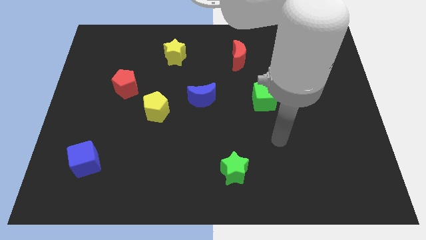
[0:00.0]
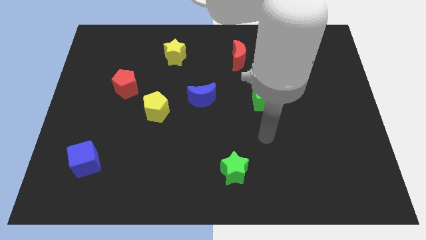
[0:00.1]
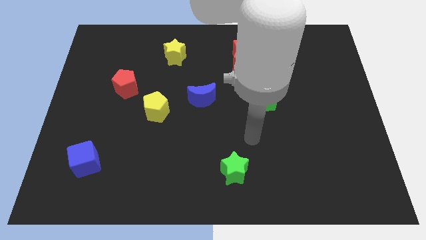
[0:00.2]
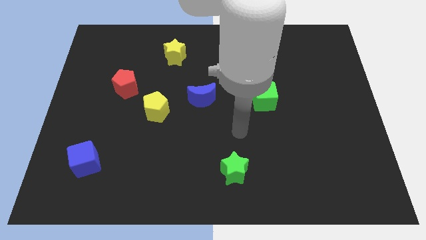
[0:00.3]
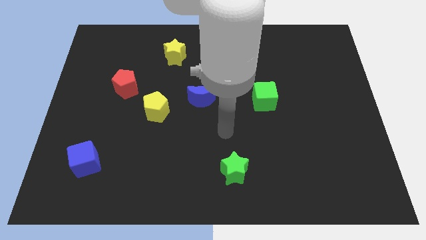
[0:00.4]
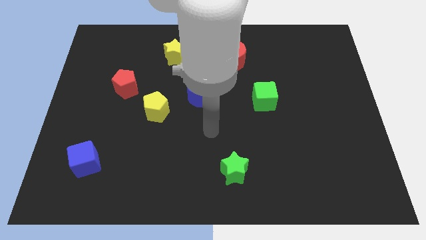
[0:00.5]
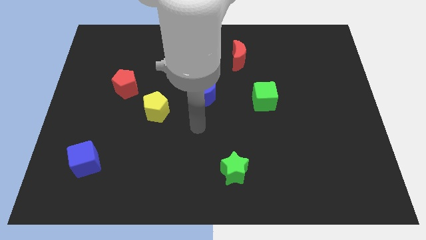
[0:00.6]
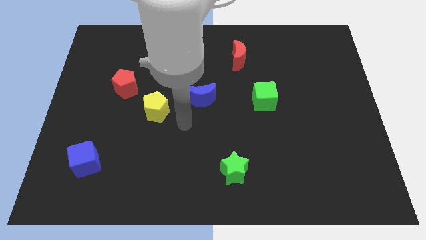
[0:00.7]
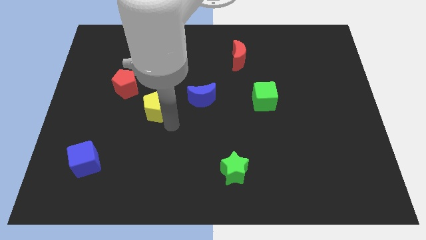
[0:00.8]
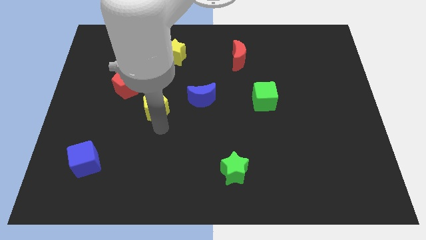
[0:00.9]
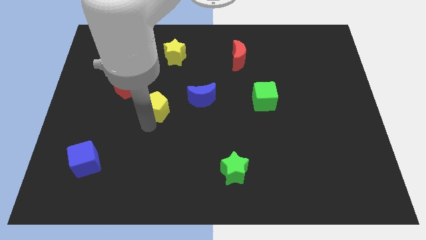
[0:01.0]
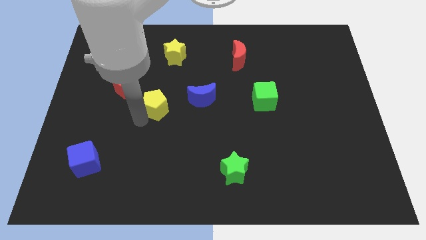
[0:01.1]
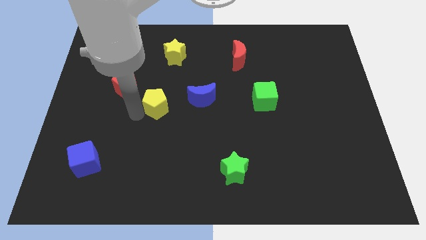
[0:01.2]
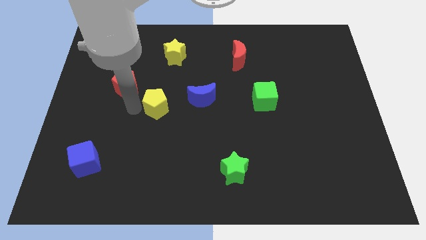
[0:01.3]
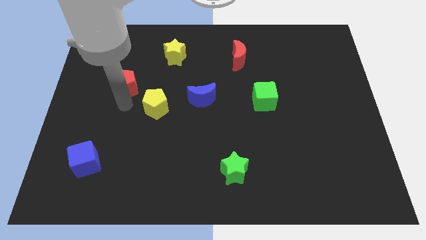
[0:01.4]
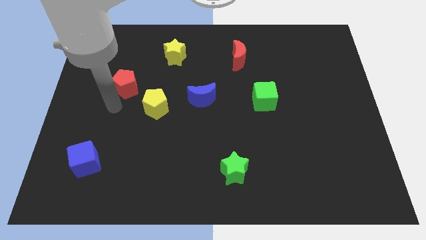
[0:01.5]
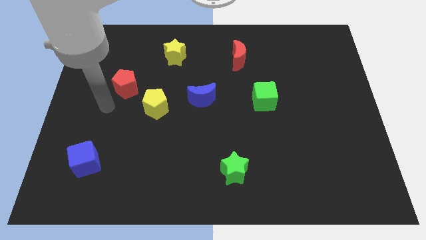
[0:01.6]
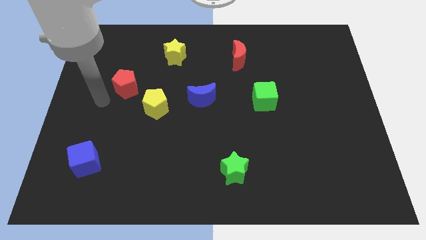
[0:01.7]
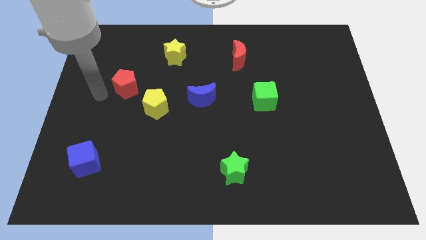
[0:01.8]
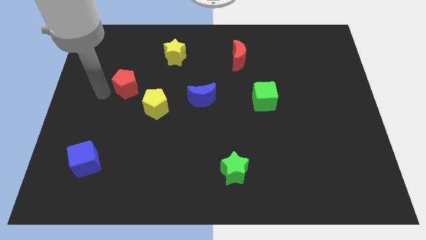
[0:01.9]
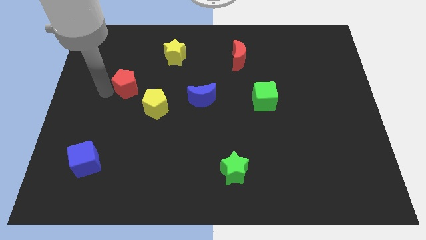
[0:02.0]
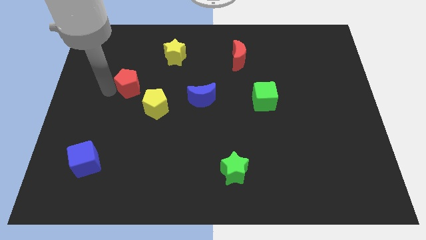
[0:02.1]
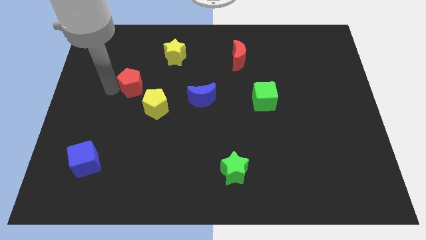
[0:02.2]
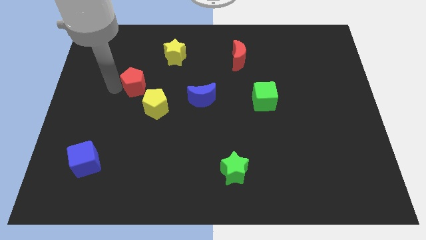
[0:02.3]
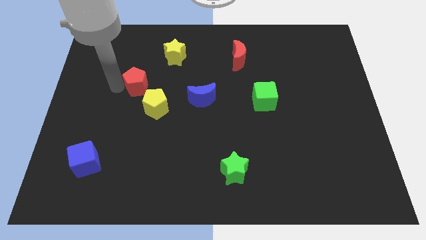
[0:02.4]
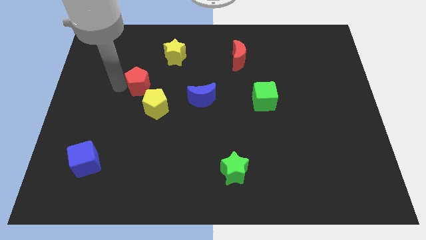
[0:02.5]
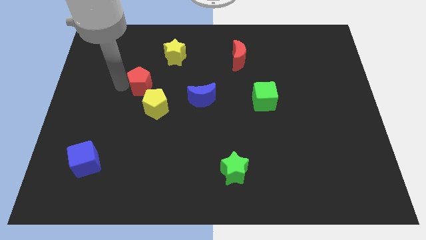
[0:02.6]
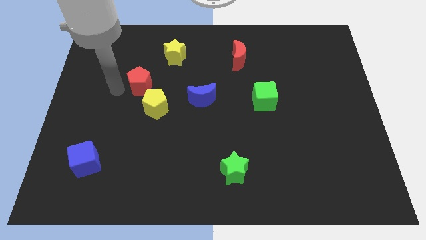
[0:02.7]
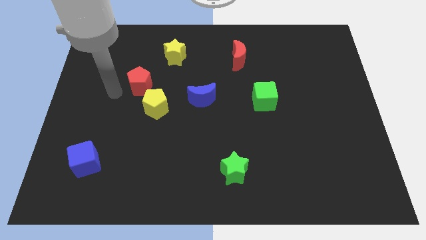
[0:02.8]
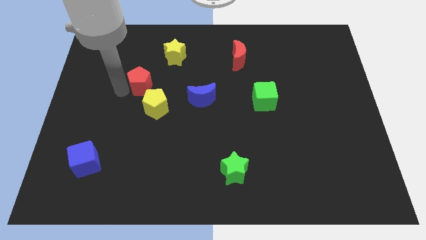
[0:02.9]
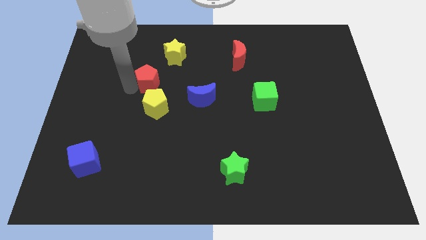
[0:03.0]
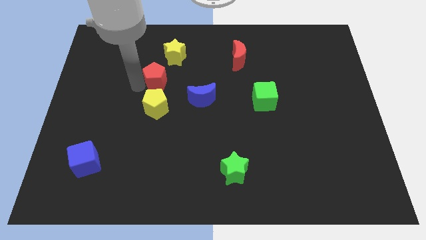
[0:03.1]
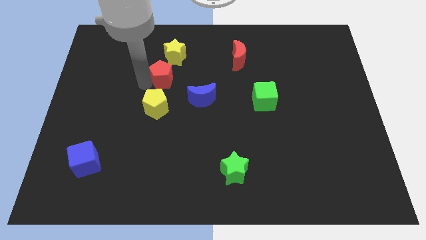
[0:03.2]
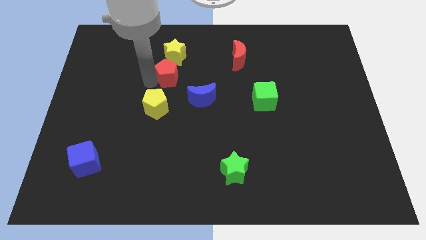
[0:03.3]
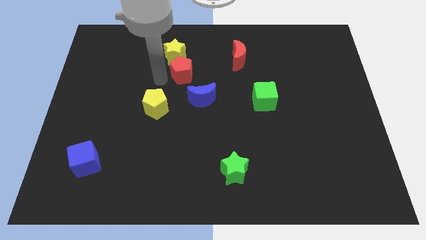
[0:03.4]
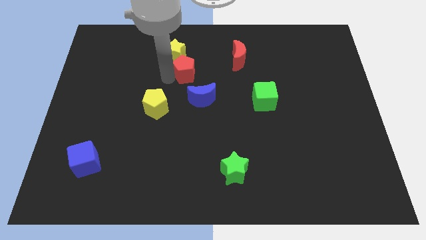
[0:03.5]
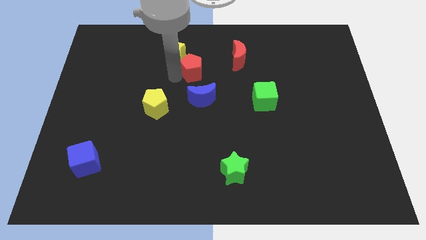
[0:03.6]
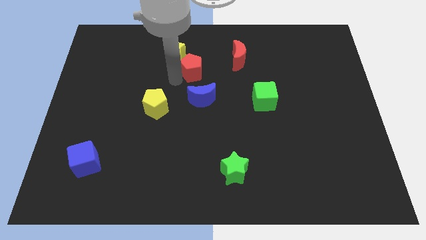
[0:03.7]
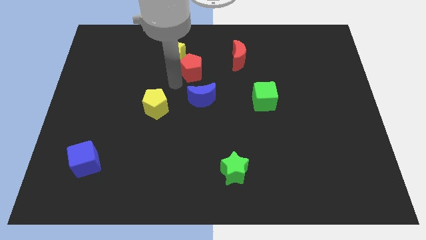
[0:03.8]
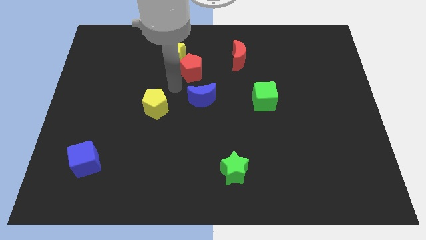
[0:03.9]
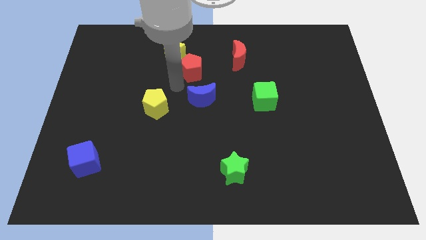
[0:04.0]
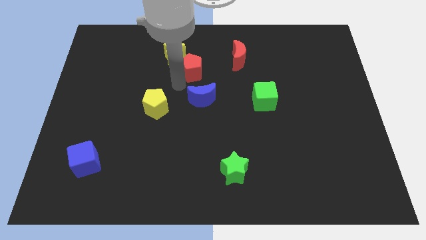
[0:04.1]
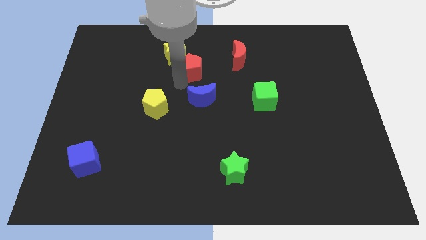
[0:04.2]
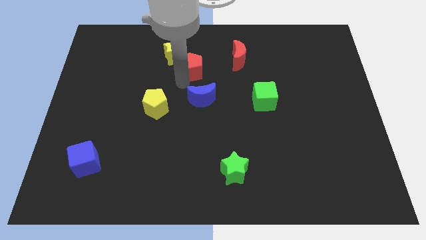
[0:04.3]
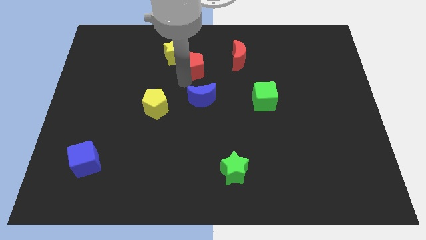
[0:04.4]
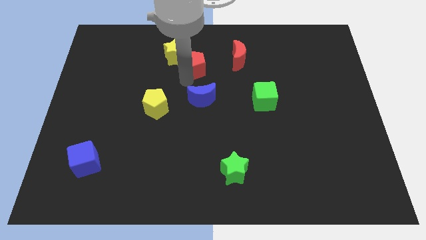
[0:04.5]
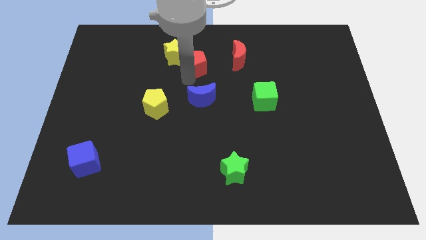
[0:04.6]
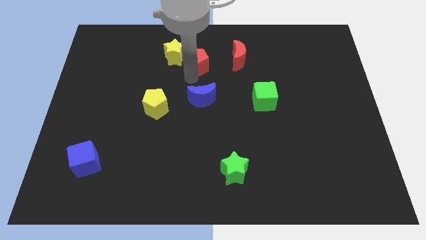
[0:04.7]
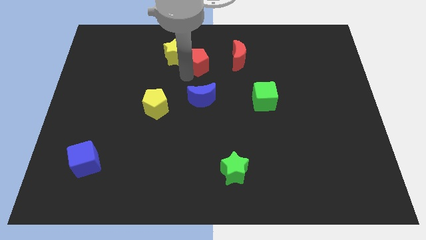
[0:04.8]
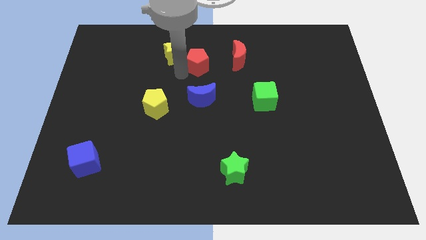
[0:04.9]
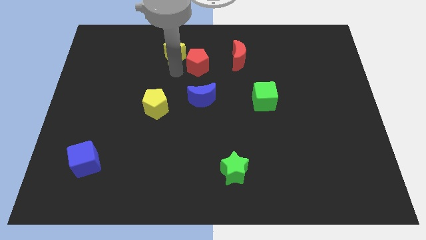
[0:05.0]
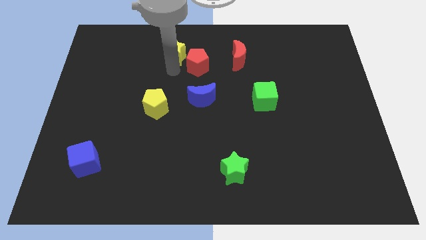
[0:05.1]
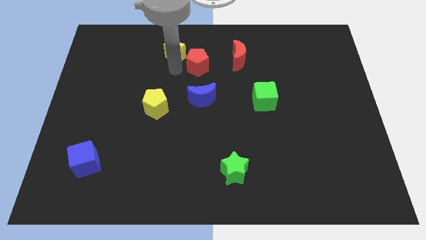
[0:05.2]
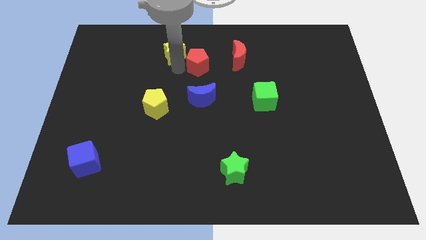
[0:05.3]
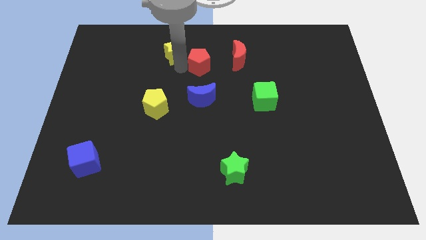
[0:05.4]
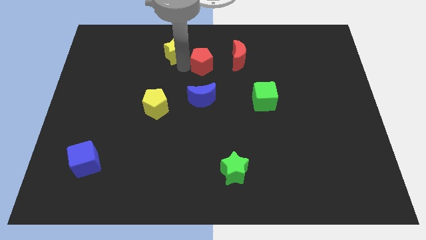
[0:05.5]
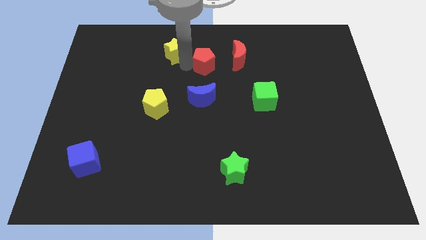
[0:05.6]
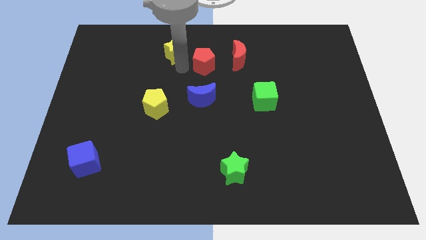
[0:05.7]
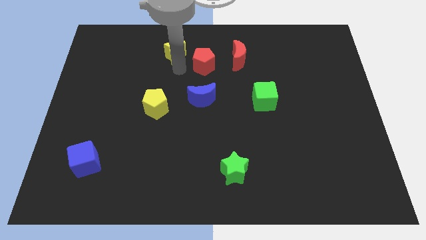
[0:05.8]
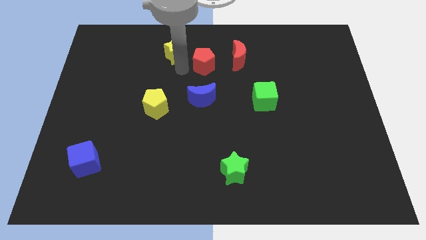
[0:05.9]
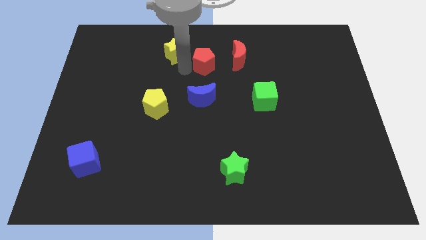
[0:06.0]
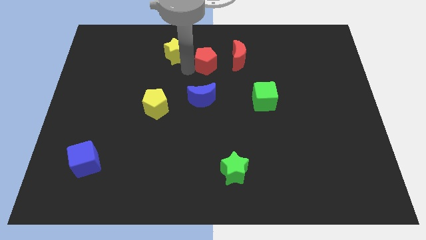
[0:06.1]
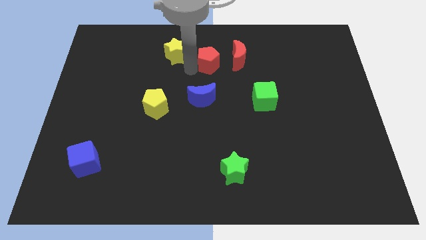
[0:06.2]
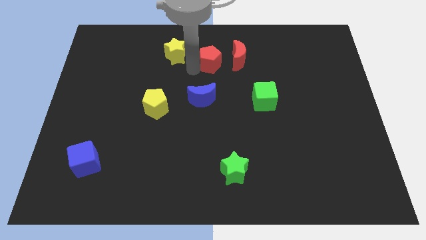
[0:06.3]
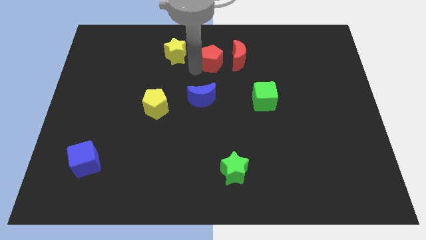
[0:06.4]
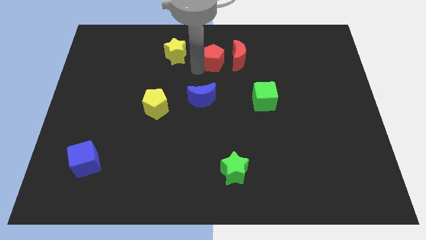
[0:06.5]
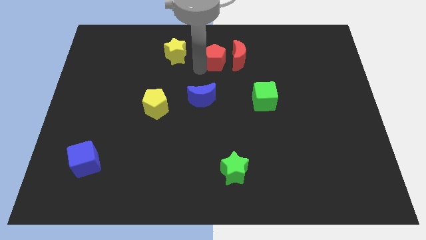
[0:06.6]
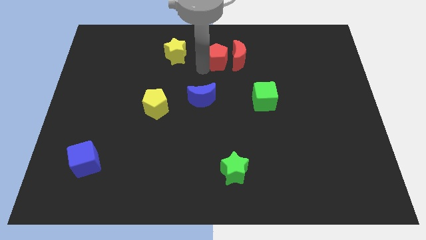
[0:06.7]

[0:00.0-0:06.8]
move the red pentagon close to the red moon
